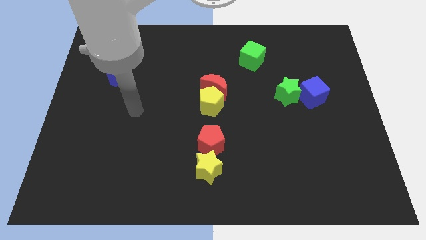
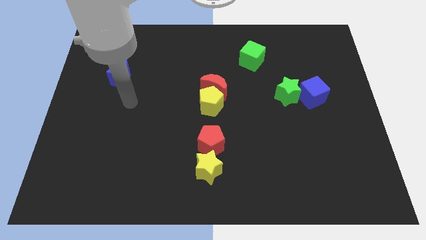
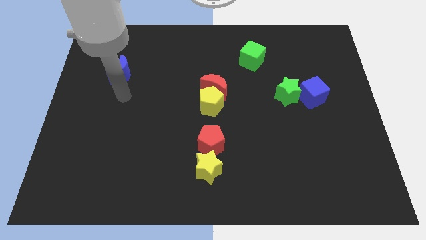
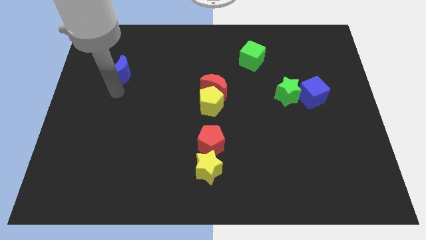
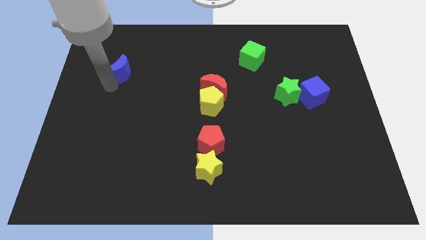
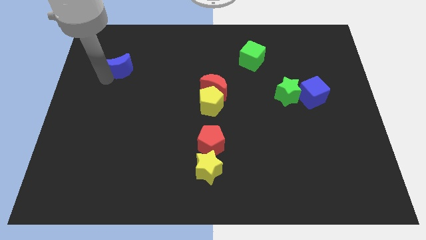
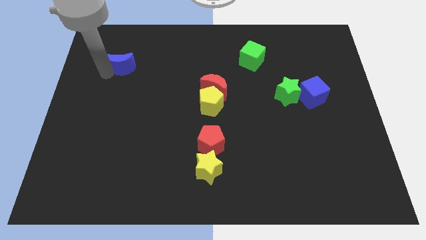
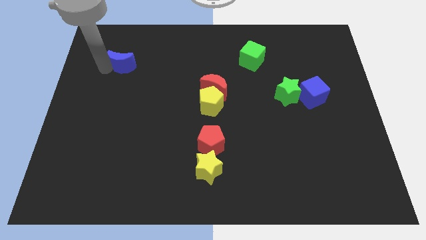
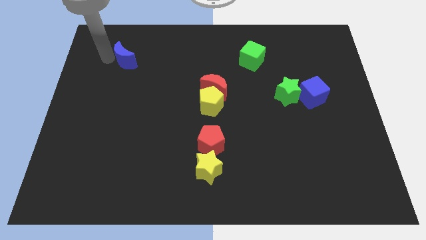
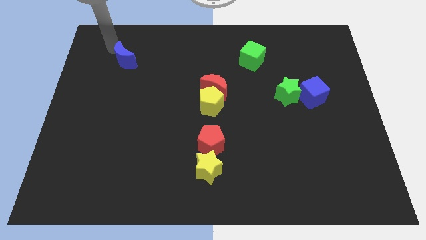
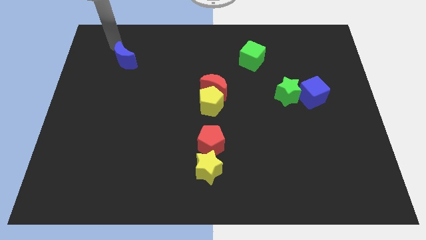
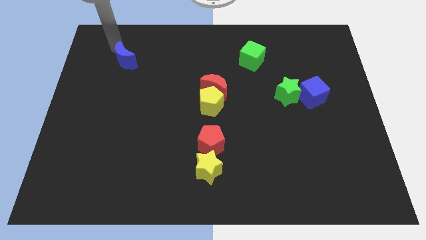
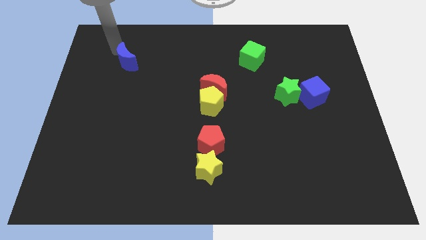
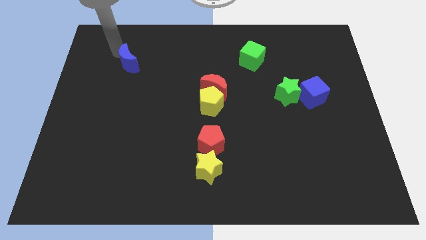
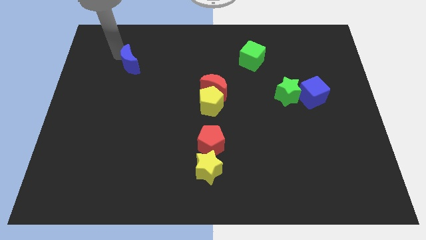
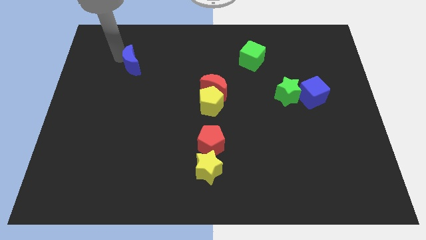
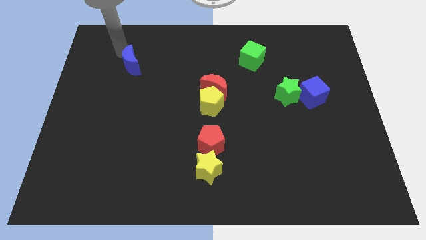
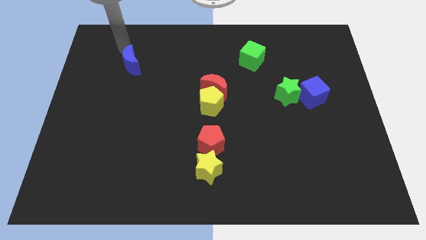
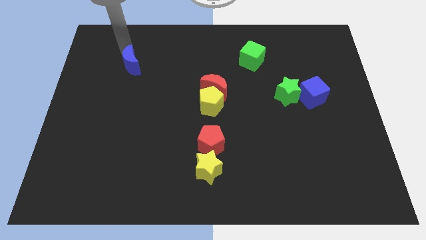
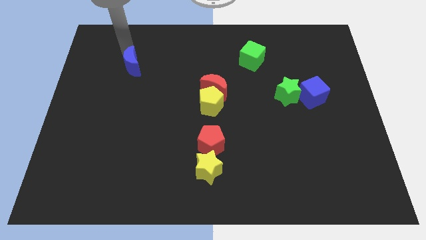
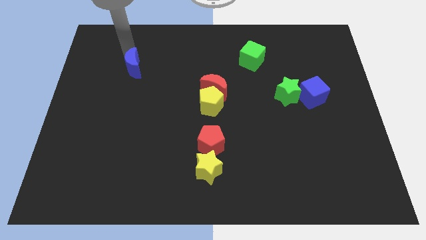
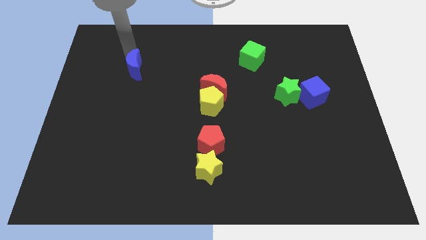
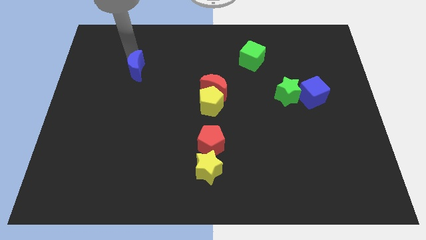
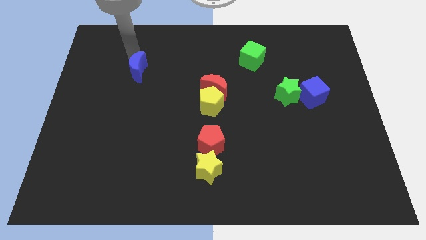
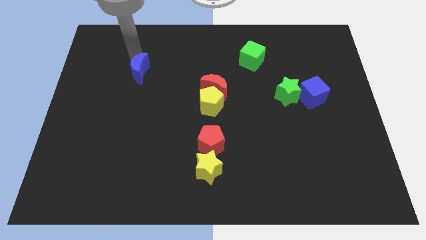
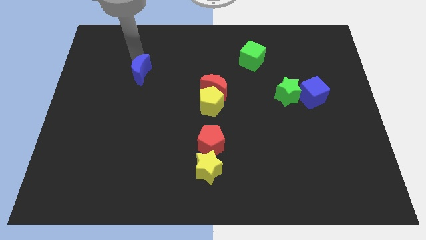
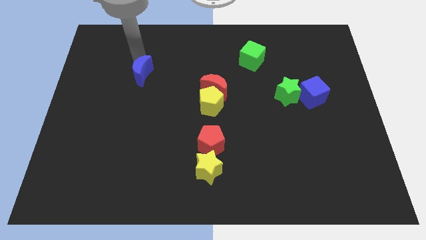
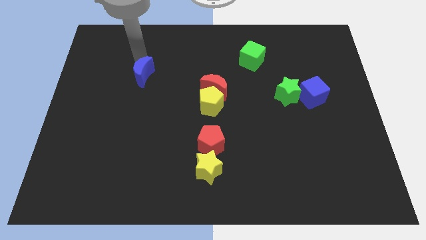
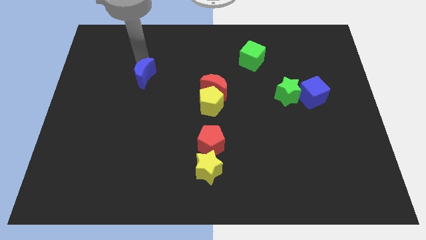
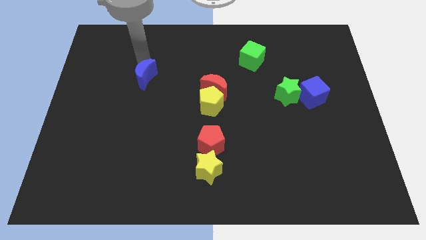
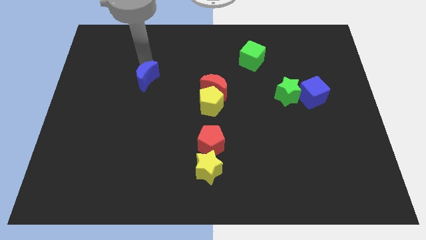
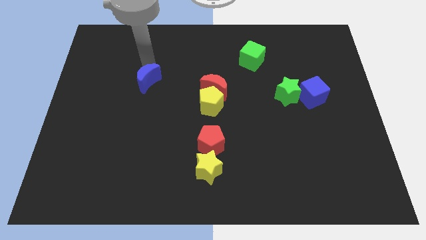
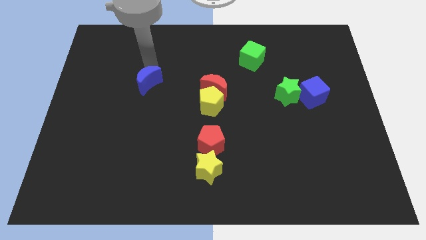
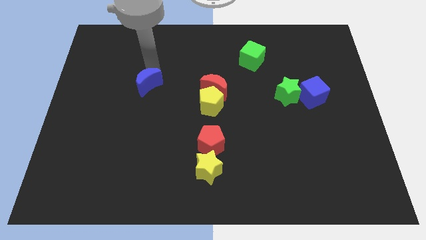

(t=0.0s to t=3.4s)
push the blue moon diagonally down and to the right a bit

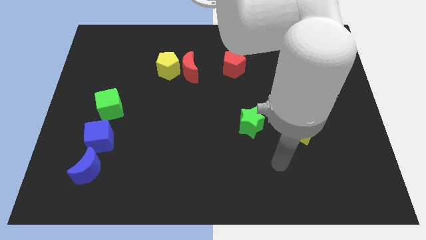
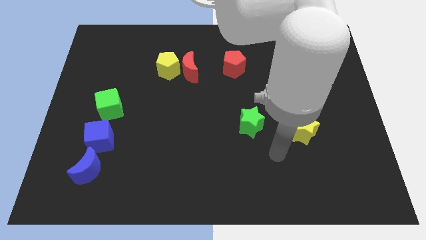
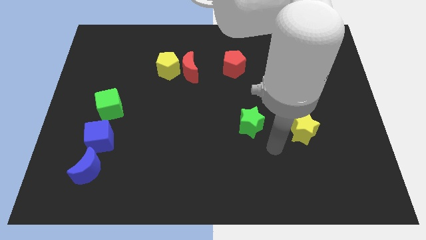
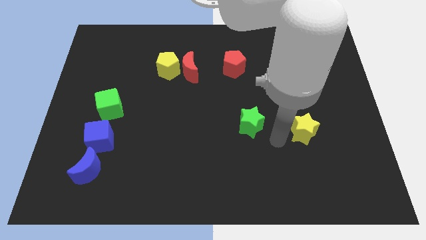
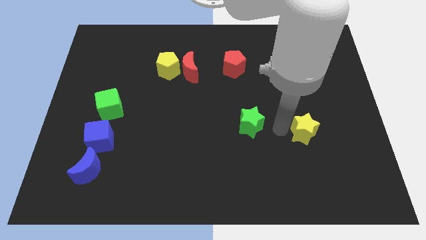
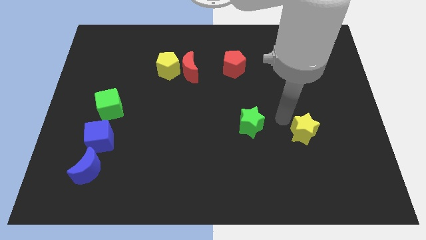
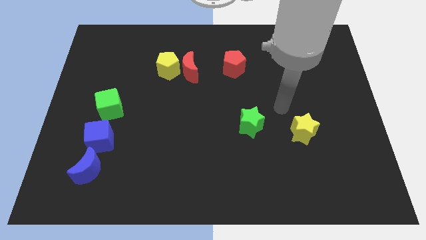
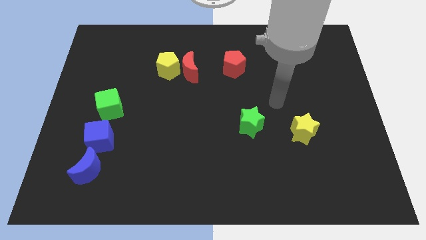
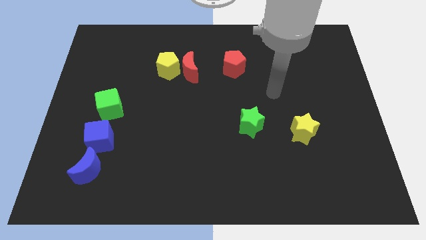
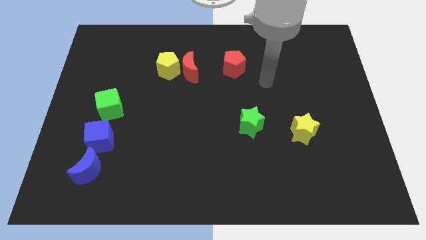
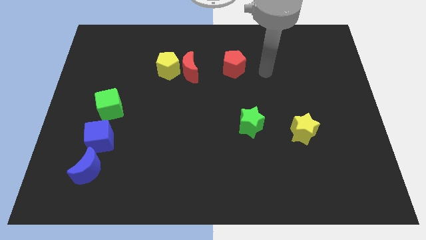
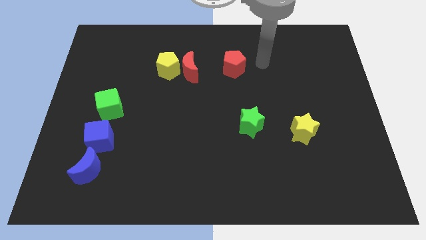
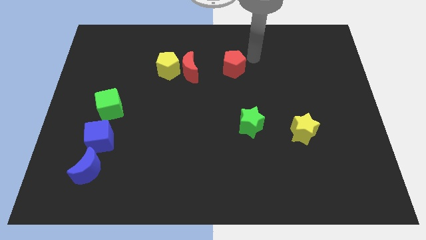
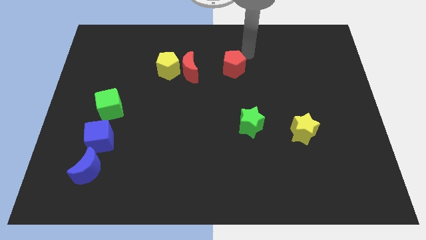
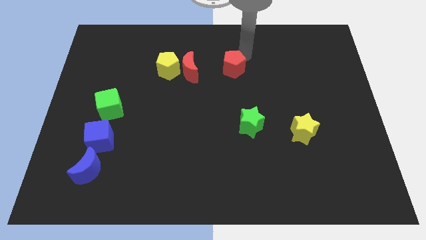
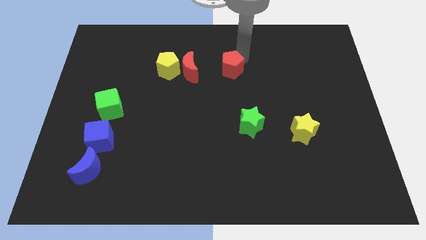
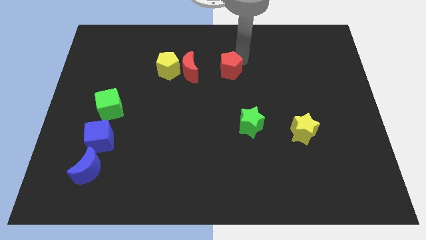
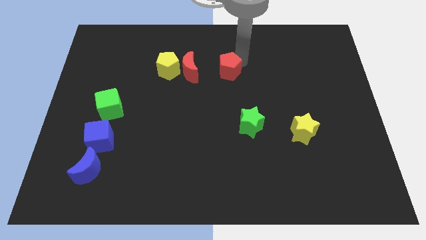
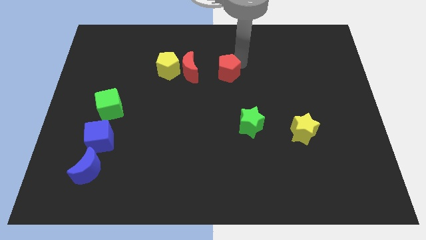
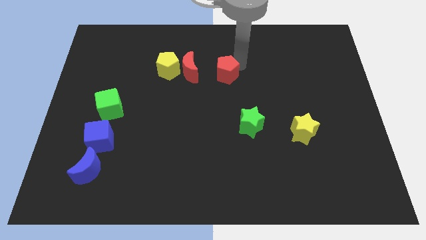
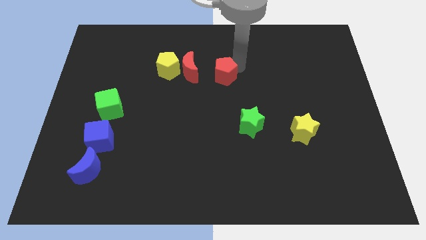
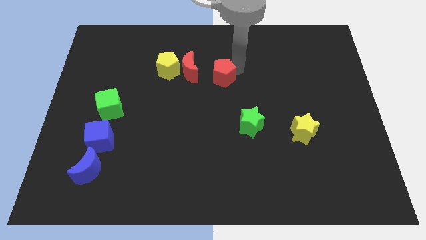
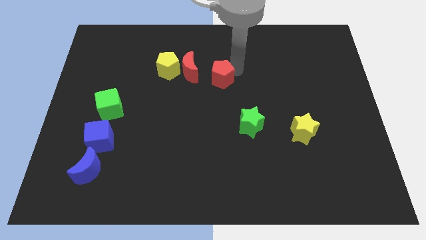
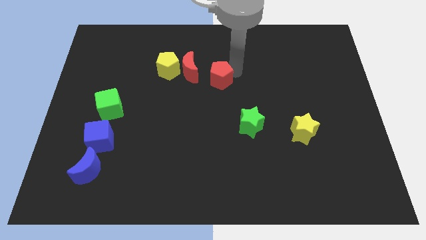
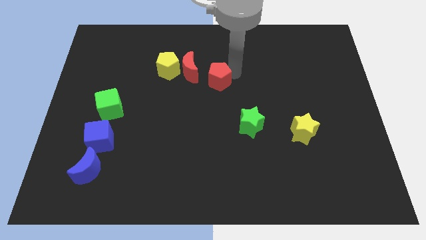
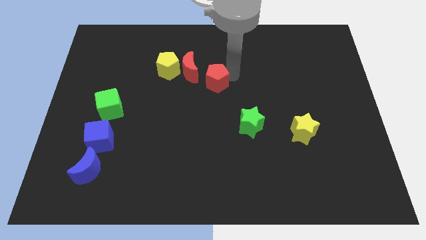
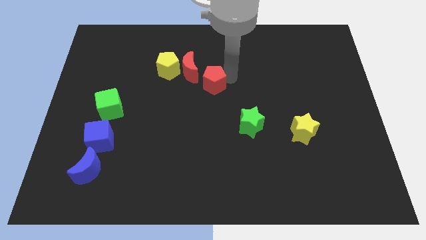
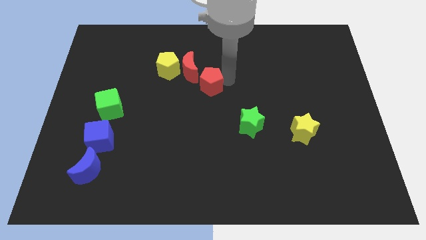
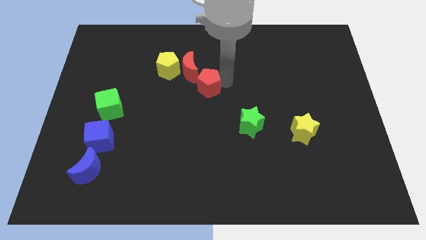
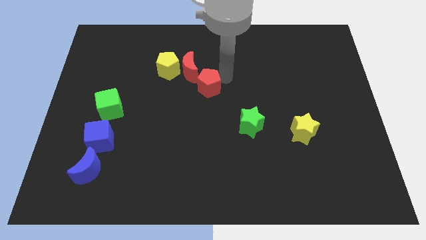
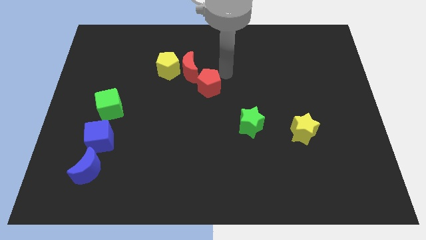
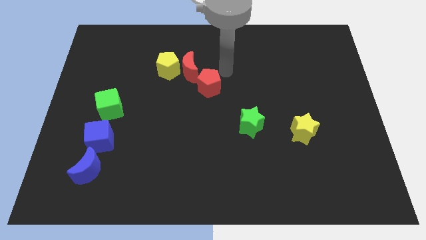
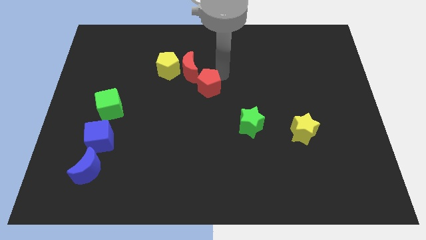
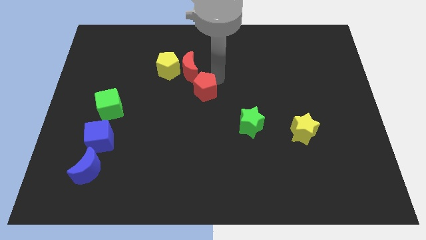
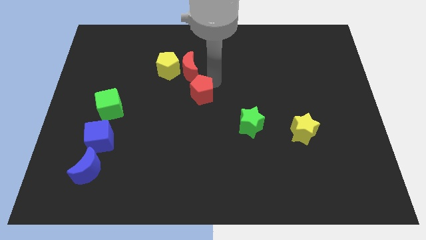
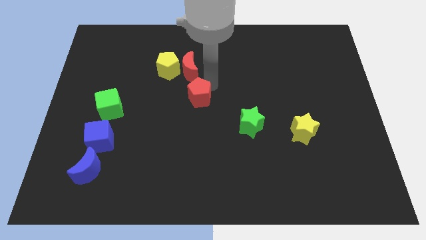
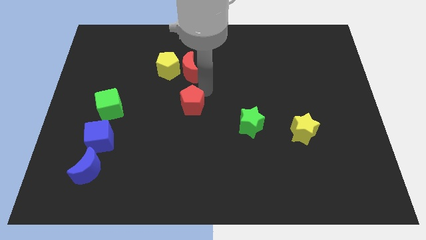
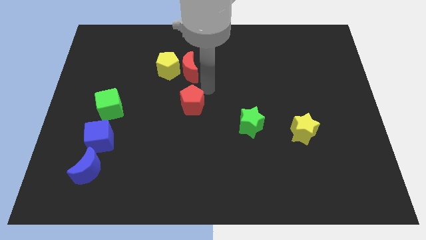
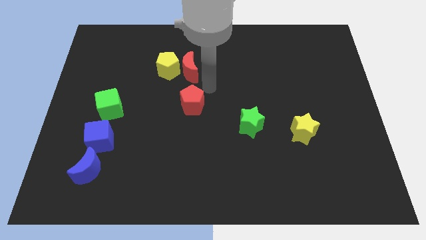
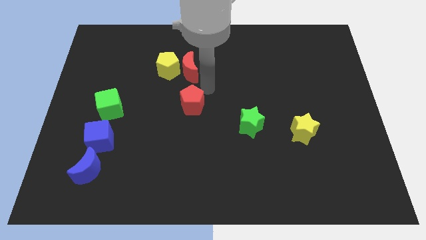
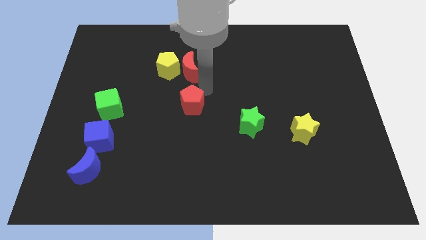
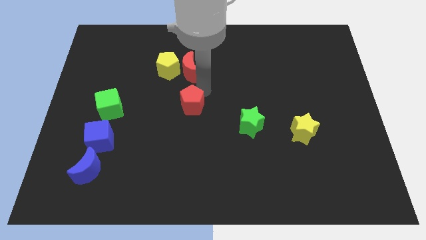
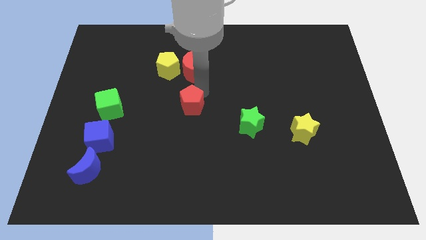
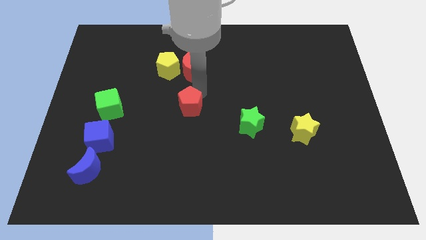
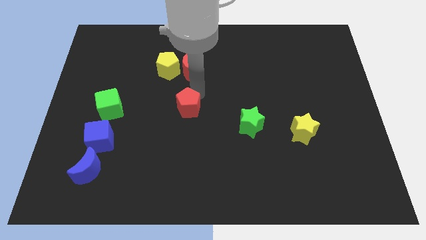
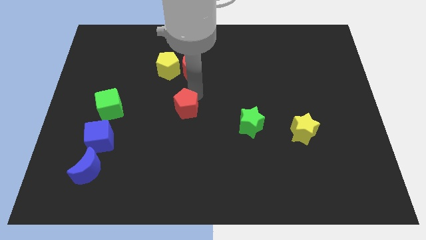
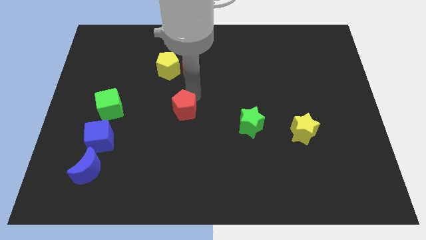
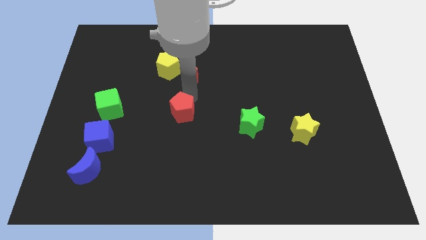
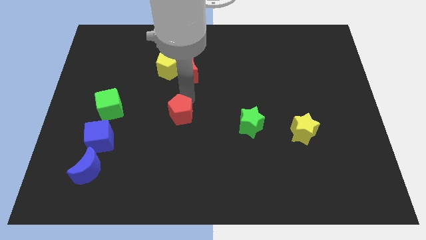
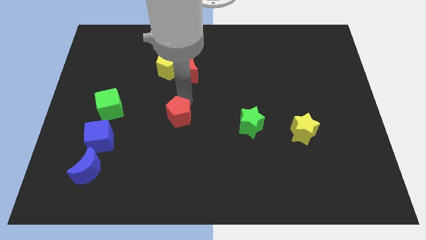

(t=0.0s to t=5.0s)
move the red pentagon diagonally down and to the left
